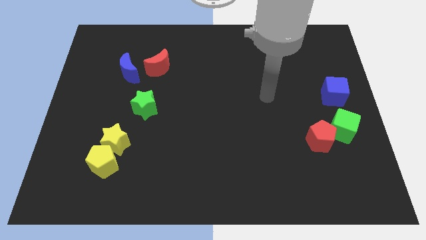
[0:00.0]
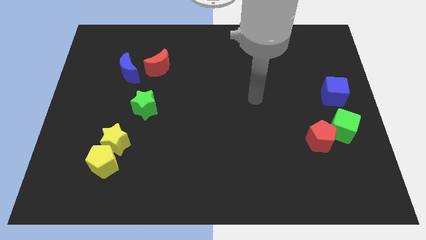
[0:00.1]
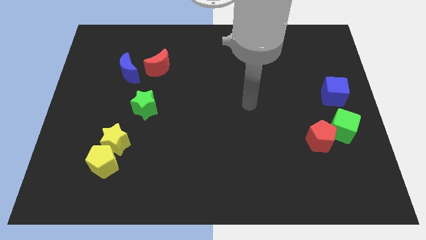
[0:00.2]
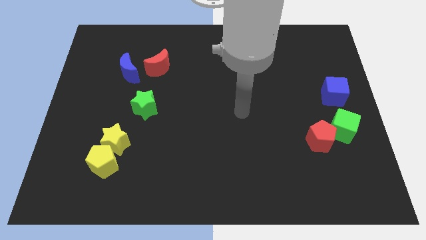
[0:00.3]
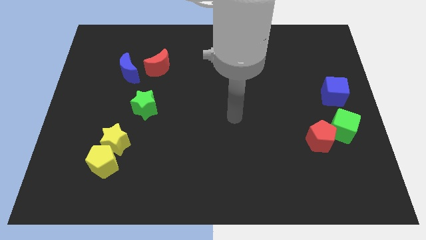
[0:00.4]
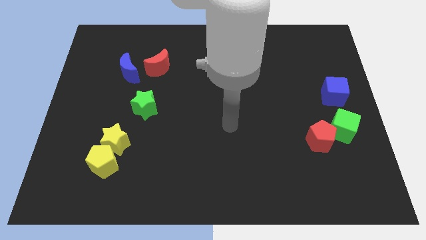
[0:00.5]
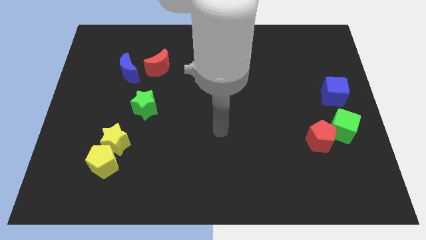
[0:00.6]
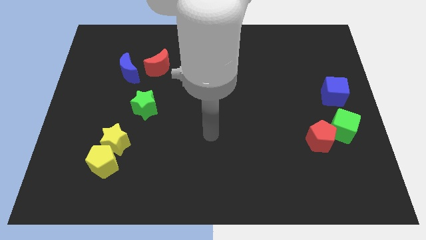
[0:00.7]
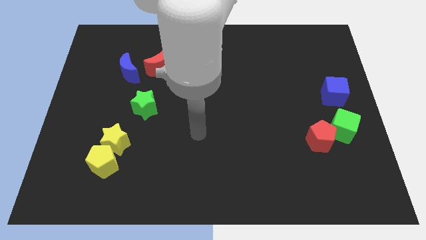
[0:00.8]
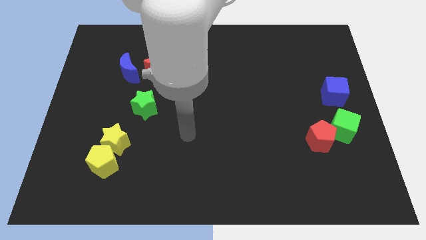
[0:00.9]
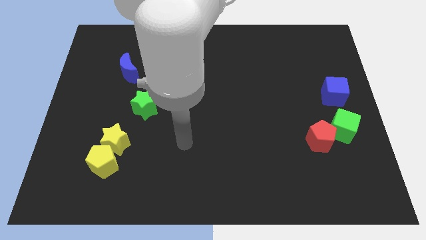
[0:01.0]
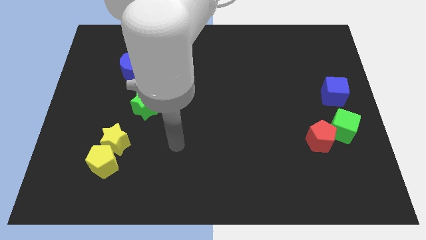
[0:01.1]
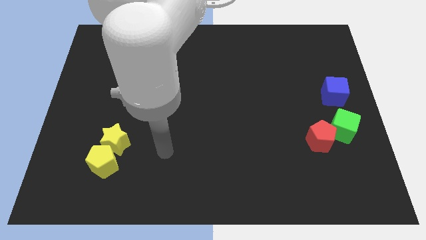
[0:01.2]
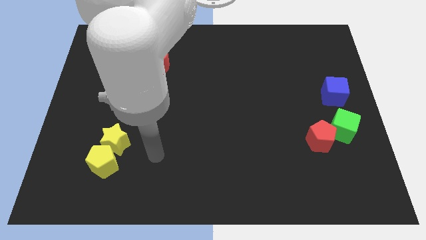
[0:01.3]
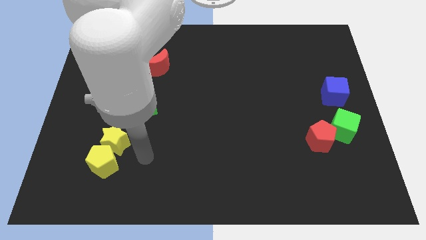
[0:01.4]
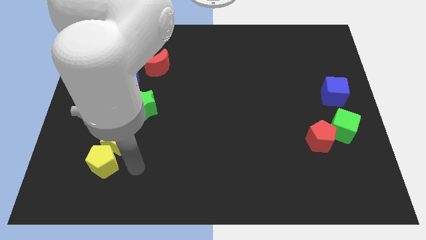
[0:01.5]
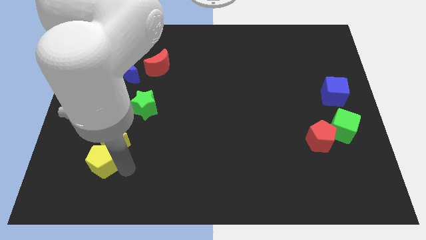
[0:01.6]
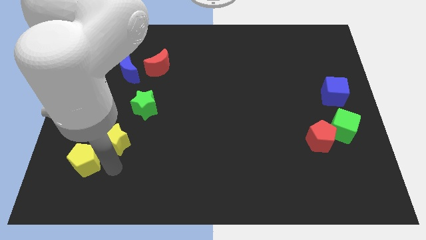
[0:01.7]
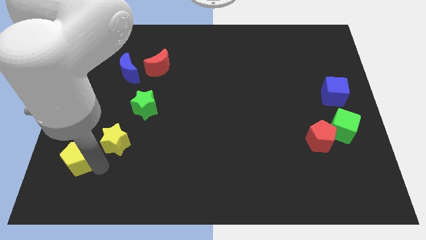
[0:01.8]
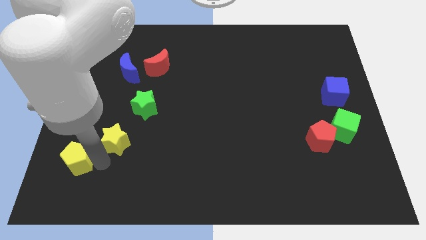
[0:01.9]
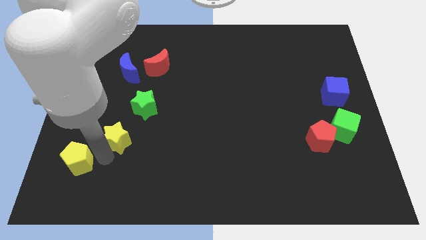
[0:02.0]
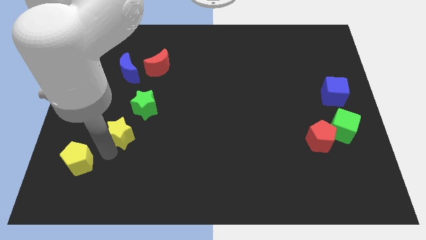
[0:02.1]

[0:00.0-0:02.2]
move the yellow star away from the yellow pentagon

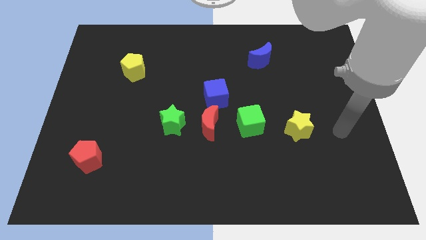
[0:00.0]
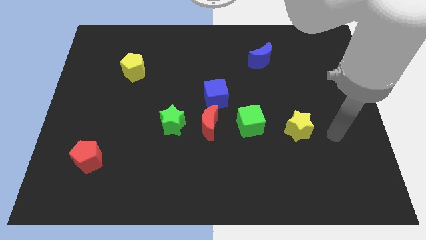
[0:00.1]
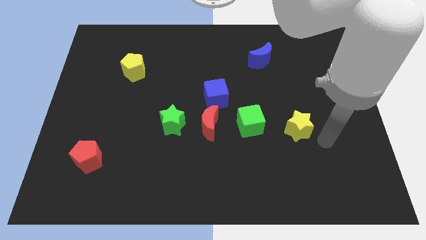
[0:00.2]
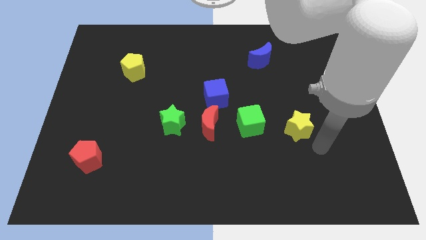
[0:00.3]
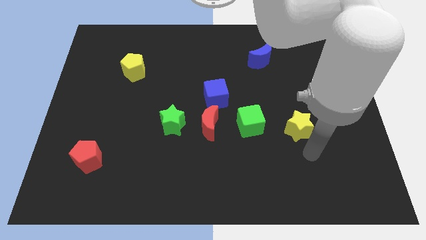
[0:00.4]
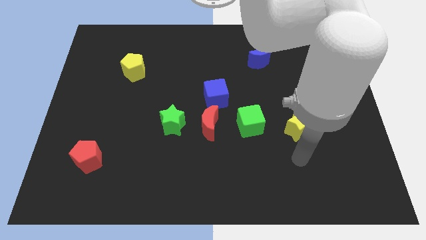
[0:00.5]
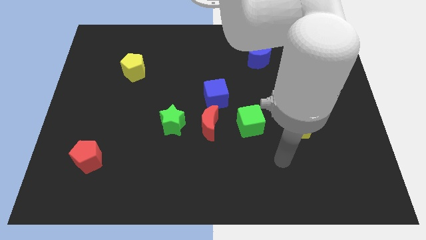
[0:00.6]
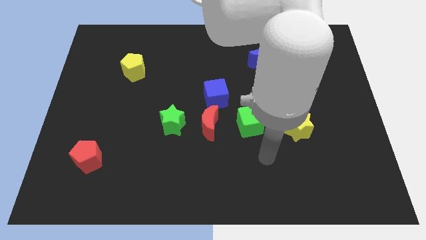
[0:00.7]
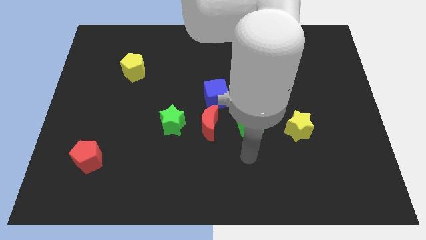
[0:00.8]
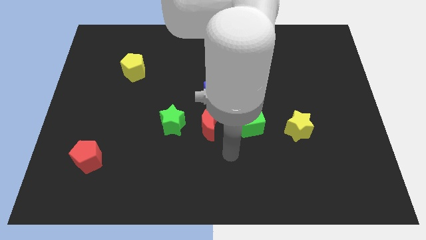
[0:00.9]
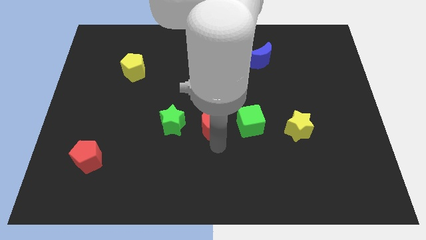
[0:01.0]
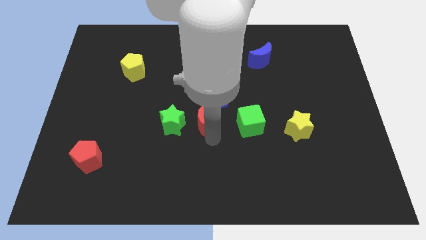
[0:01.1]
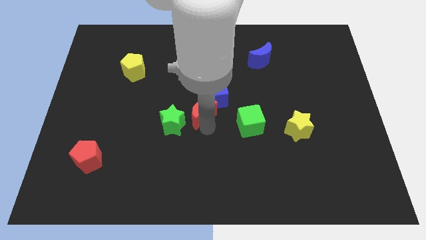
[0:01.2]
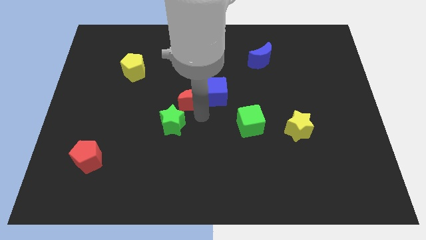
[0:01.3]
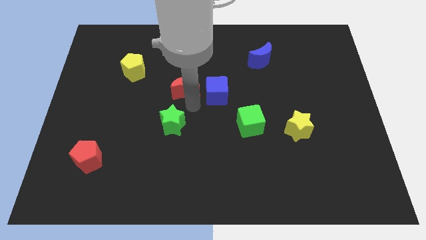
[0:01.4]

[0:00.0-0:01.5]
pull the green star apart from the red moon

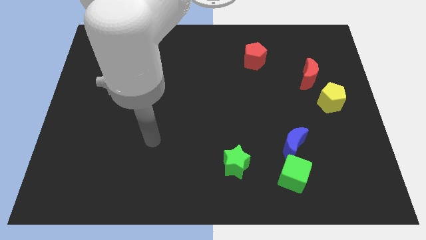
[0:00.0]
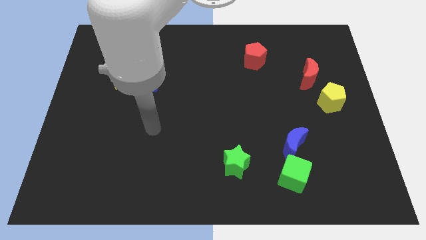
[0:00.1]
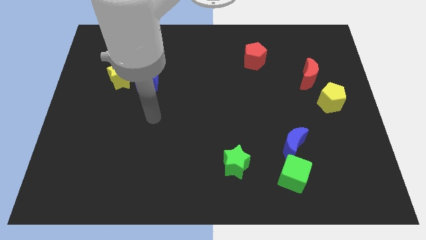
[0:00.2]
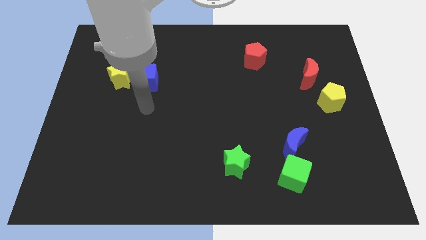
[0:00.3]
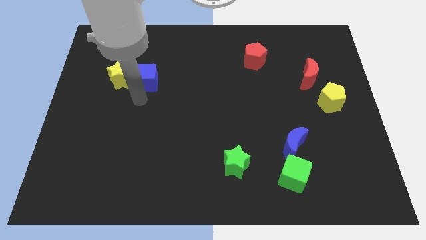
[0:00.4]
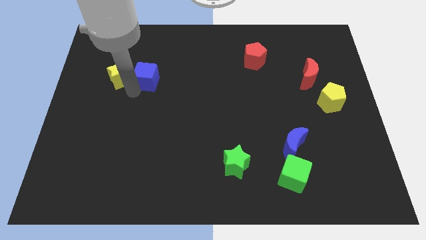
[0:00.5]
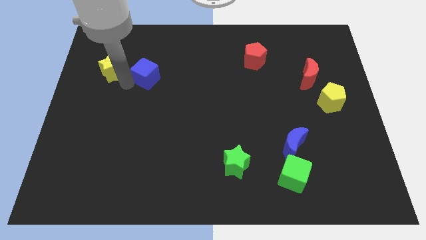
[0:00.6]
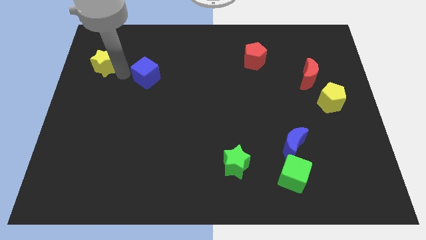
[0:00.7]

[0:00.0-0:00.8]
separate the blue cube from the yellow star

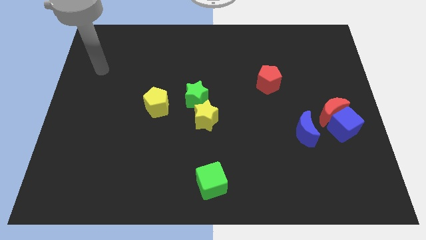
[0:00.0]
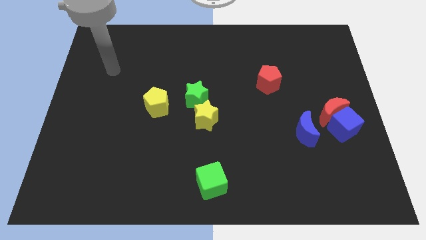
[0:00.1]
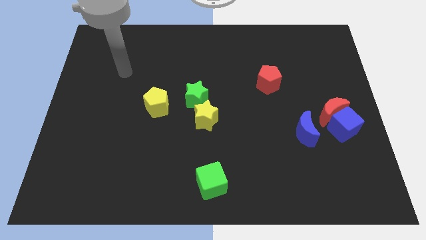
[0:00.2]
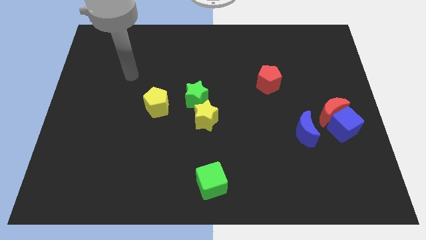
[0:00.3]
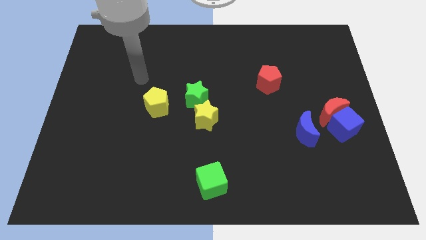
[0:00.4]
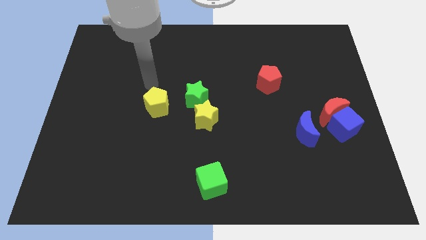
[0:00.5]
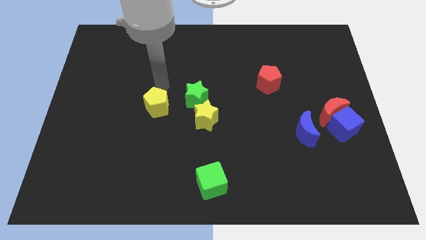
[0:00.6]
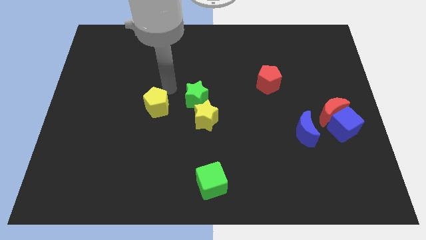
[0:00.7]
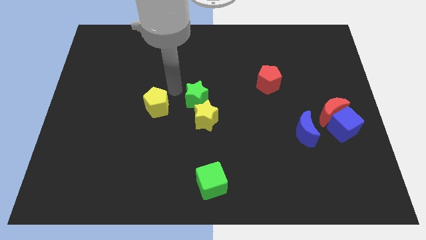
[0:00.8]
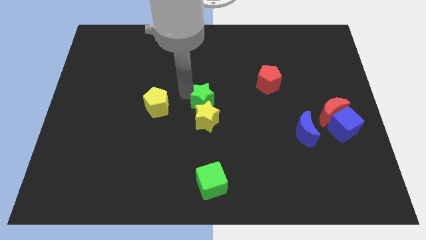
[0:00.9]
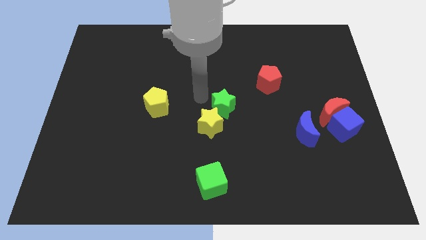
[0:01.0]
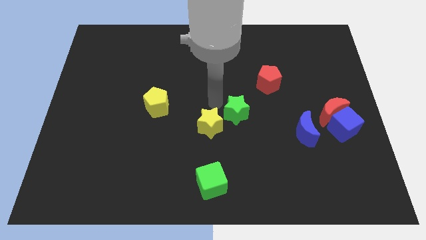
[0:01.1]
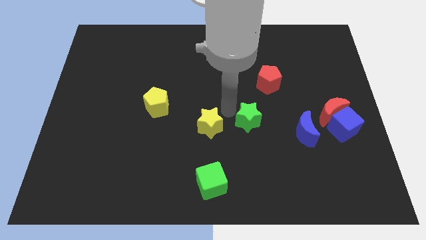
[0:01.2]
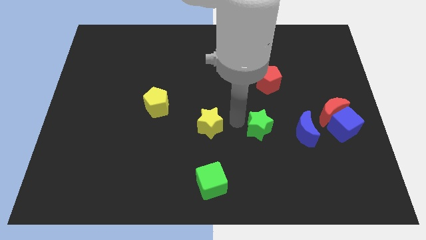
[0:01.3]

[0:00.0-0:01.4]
separate the yellow star from the green star

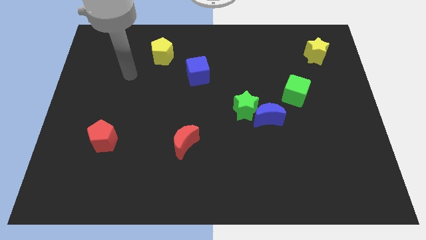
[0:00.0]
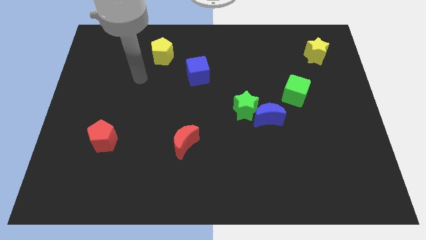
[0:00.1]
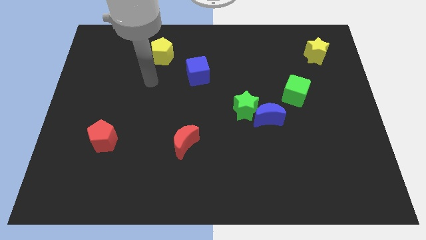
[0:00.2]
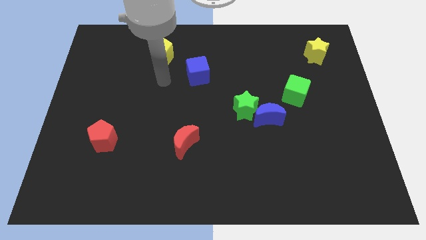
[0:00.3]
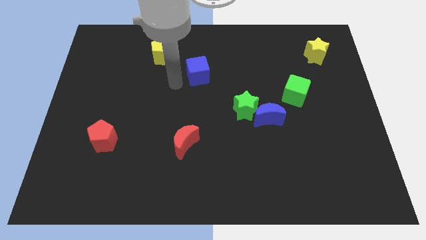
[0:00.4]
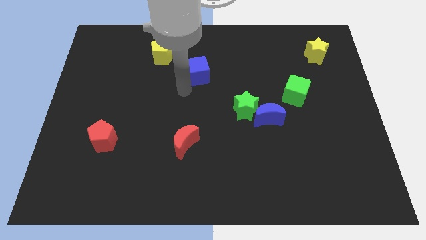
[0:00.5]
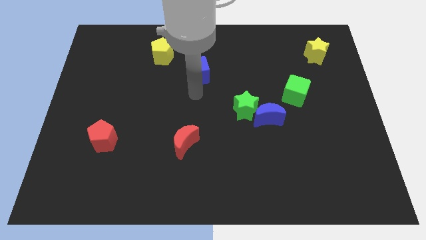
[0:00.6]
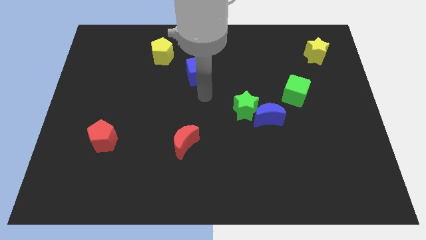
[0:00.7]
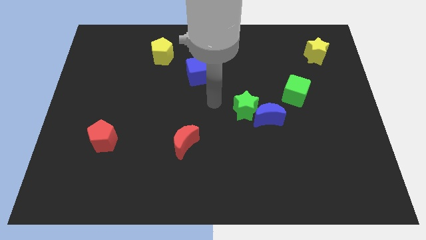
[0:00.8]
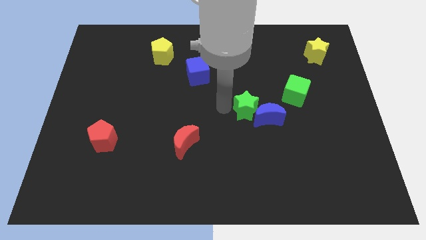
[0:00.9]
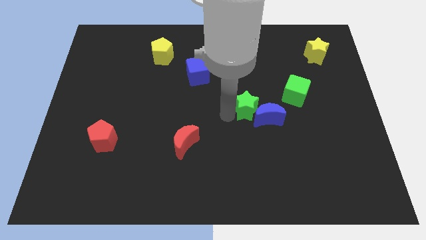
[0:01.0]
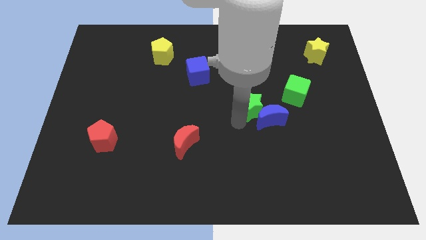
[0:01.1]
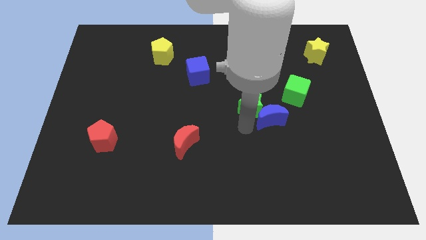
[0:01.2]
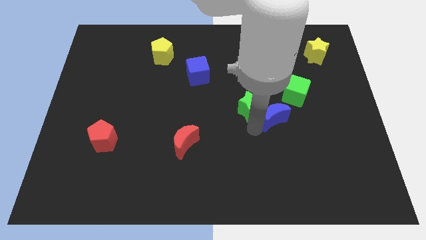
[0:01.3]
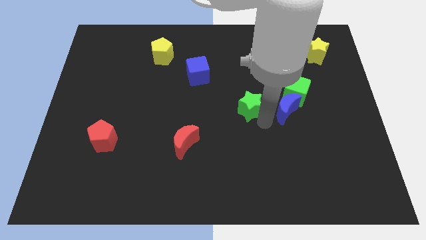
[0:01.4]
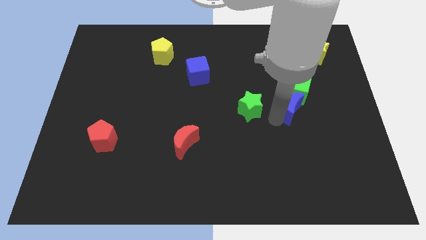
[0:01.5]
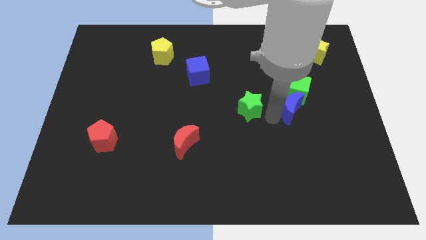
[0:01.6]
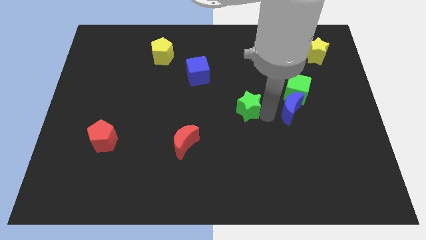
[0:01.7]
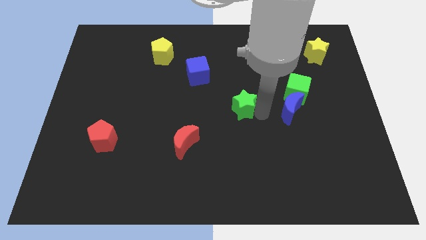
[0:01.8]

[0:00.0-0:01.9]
move the green star away from the blue moon

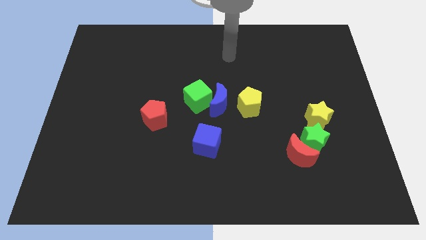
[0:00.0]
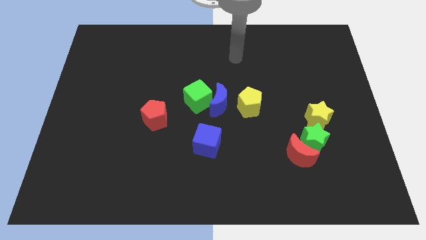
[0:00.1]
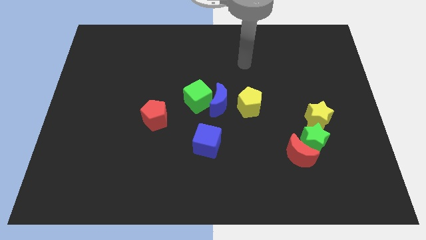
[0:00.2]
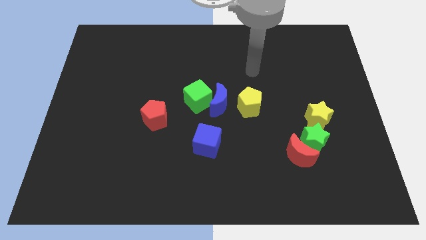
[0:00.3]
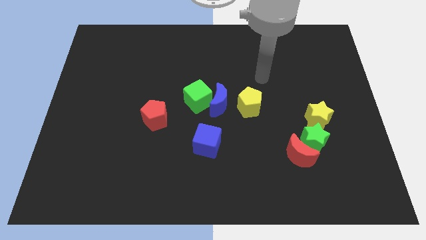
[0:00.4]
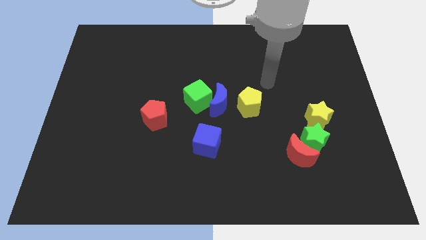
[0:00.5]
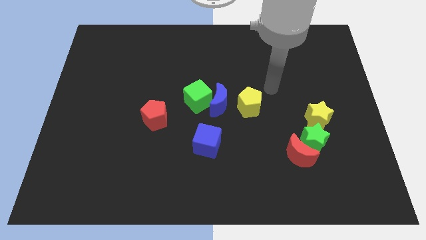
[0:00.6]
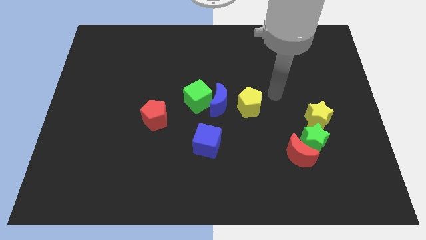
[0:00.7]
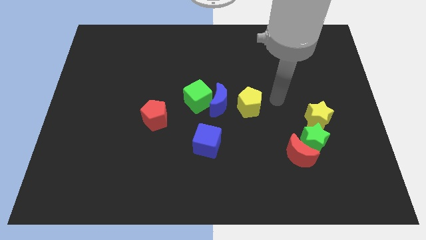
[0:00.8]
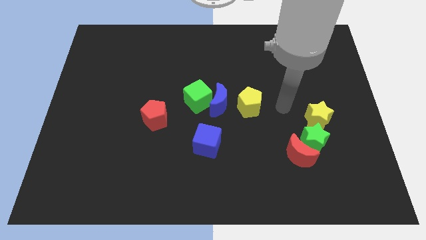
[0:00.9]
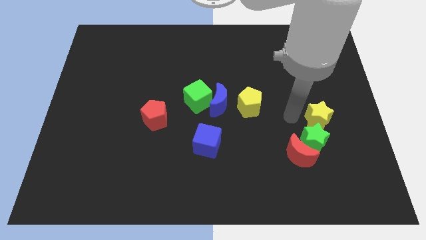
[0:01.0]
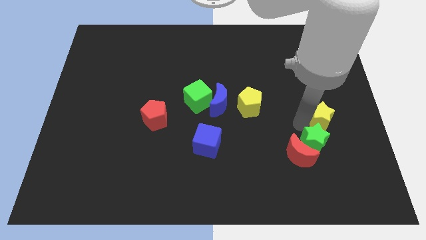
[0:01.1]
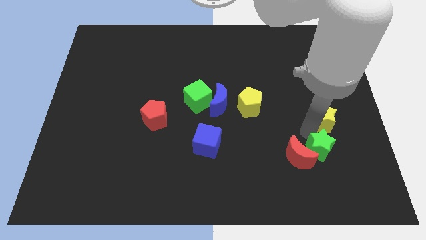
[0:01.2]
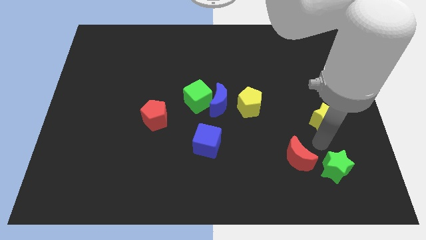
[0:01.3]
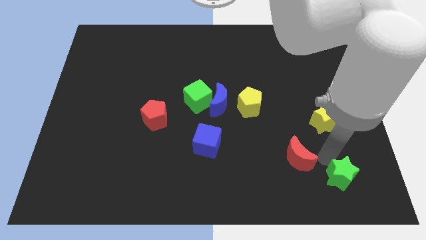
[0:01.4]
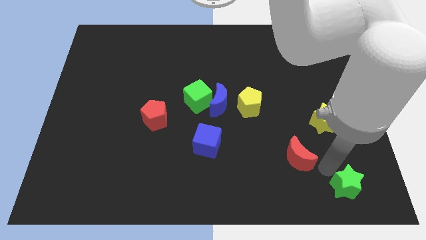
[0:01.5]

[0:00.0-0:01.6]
pull the red moon apart from the green star
